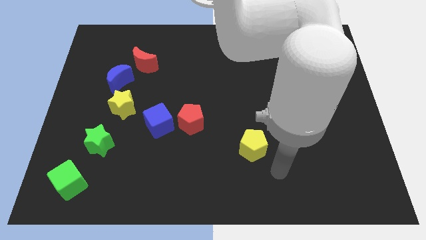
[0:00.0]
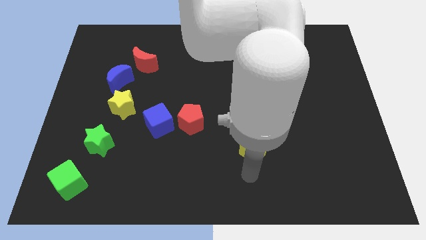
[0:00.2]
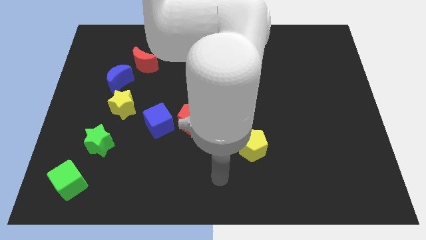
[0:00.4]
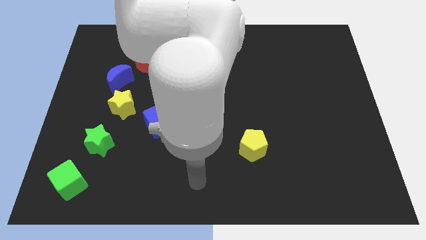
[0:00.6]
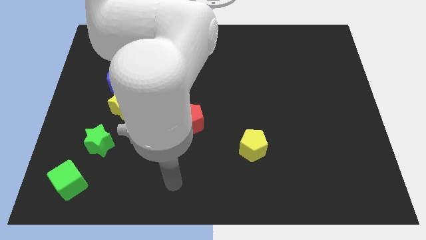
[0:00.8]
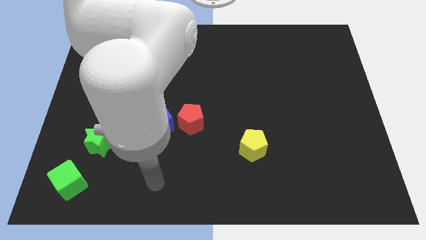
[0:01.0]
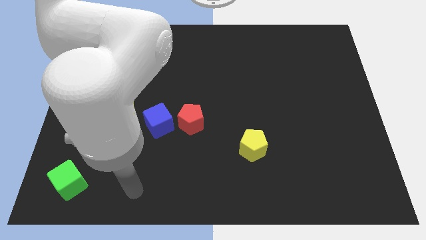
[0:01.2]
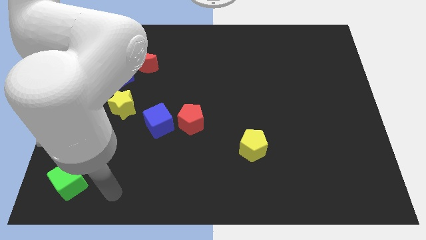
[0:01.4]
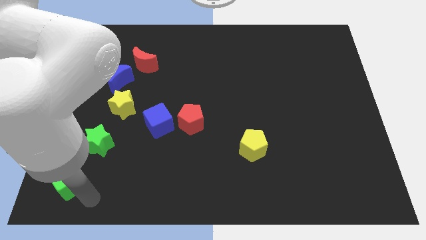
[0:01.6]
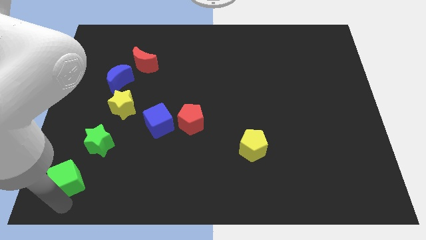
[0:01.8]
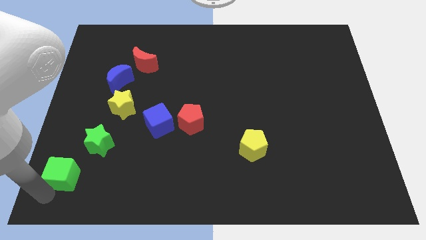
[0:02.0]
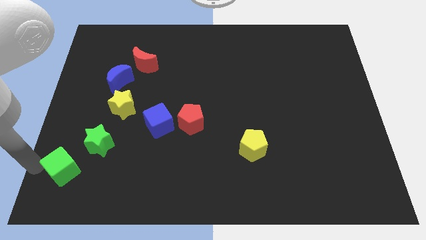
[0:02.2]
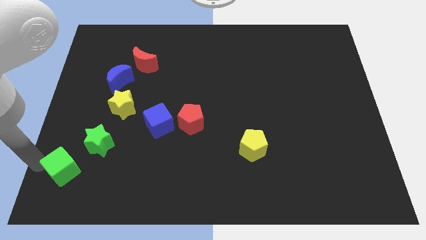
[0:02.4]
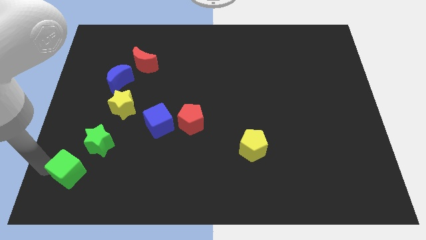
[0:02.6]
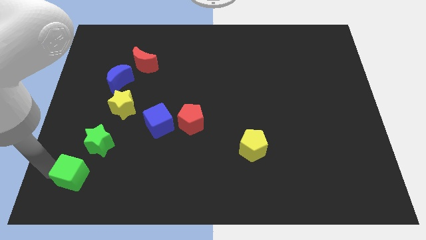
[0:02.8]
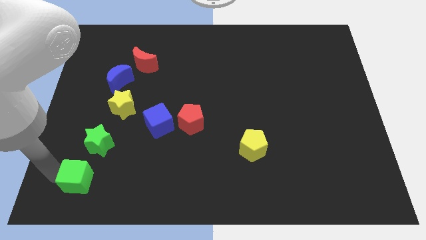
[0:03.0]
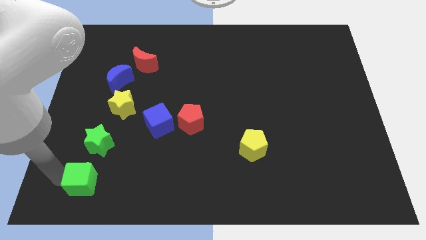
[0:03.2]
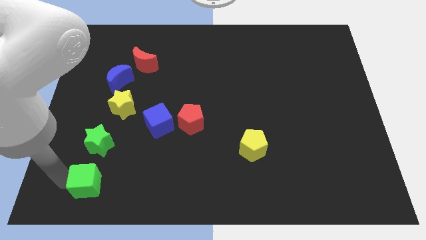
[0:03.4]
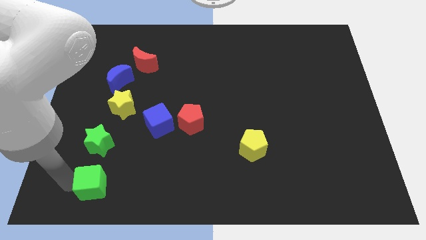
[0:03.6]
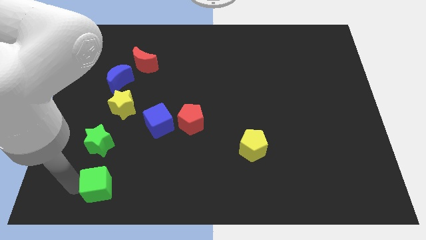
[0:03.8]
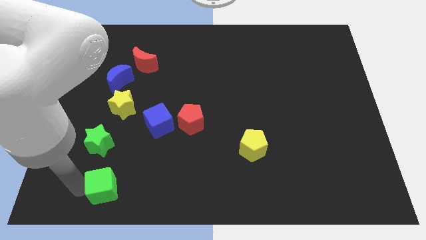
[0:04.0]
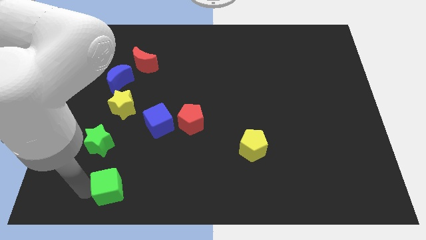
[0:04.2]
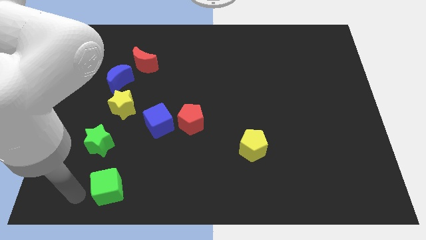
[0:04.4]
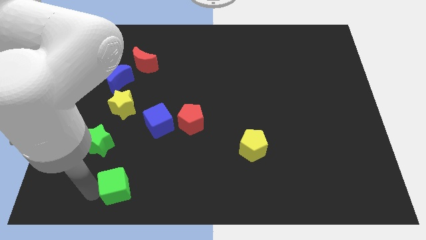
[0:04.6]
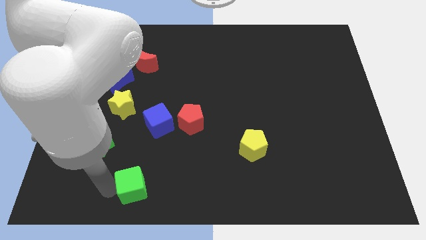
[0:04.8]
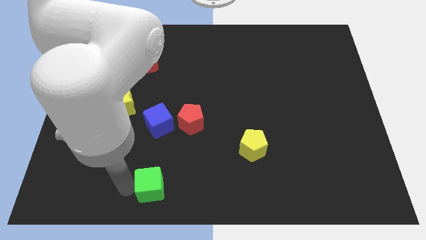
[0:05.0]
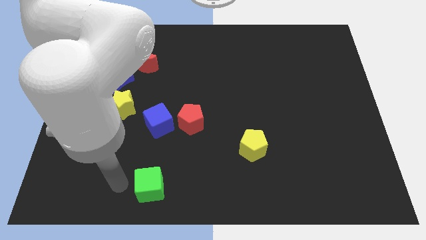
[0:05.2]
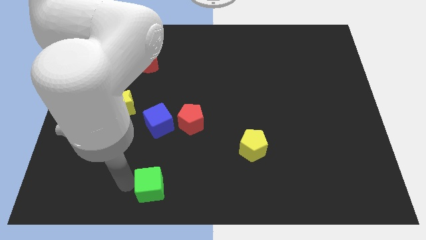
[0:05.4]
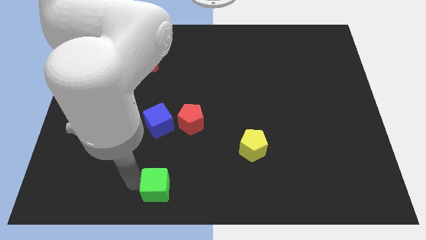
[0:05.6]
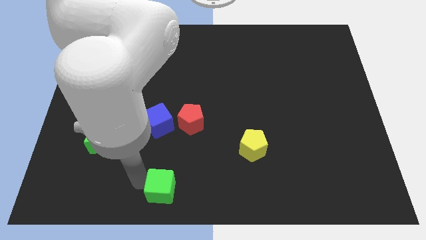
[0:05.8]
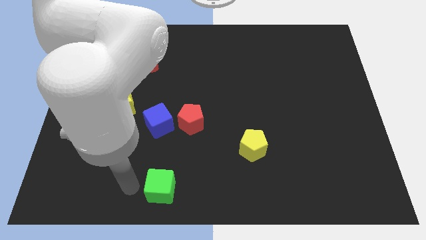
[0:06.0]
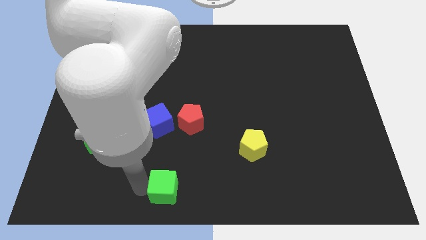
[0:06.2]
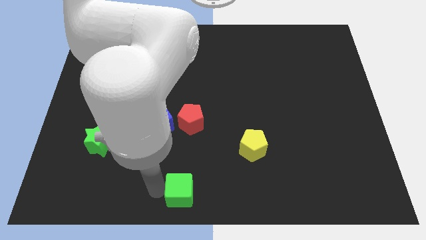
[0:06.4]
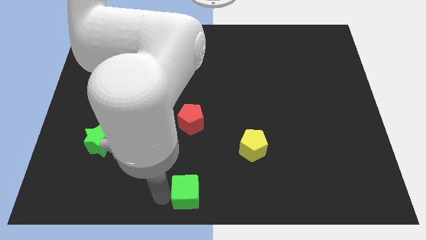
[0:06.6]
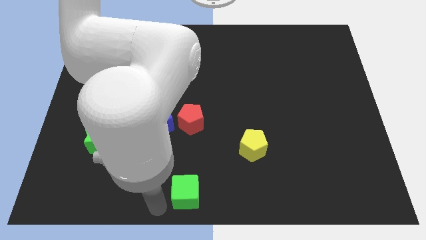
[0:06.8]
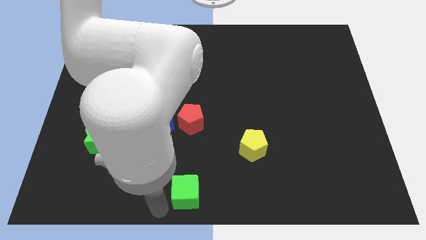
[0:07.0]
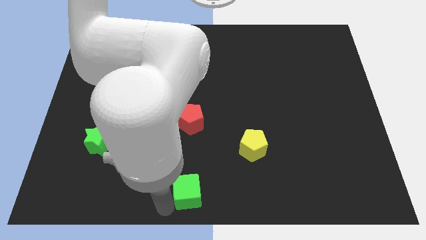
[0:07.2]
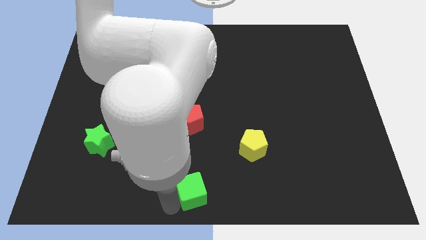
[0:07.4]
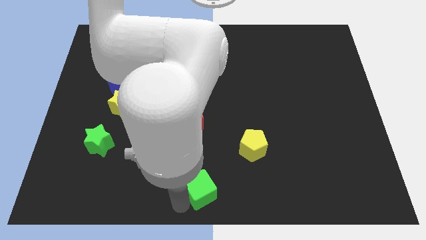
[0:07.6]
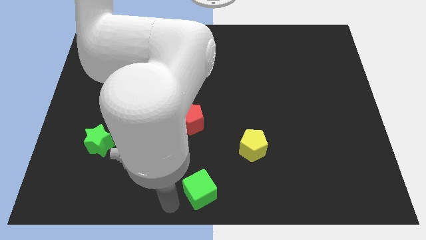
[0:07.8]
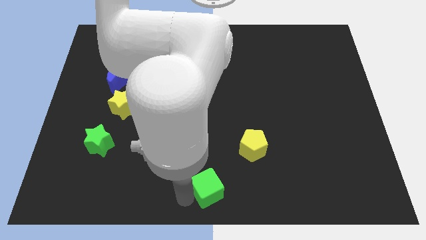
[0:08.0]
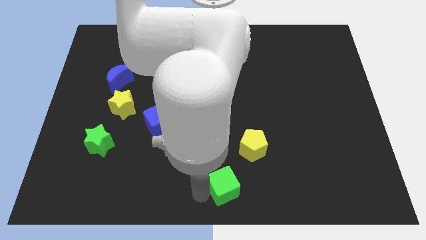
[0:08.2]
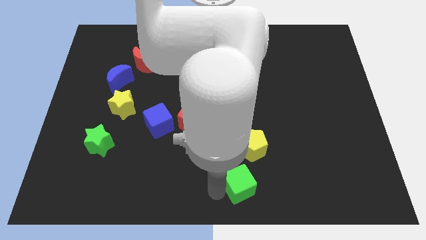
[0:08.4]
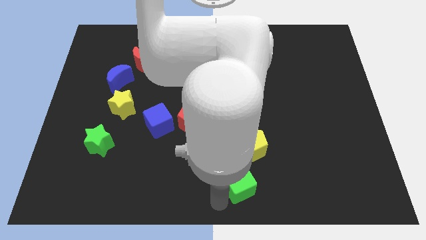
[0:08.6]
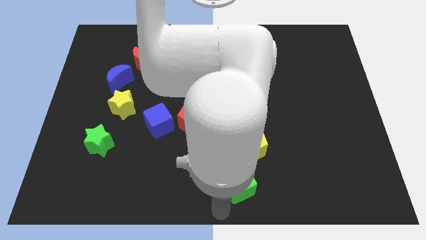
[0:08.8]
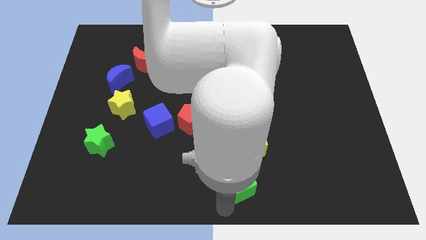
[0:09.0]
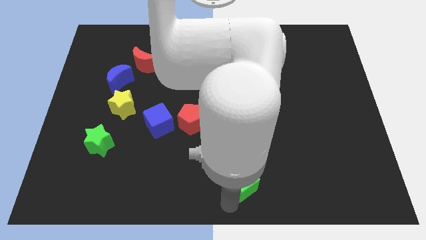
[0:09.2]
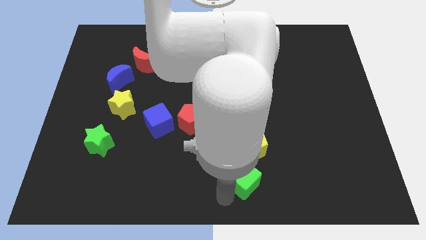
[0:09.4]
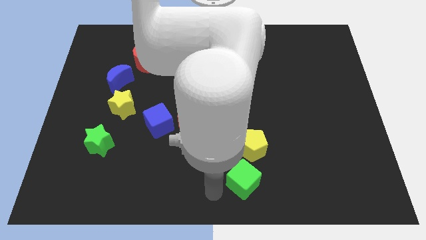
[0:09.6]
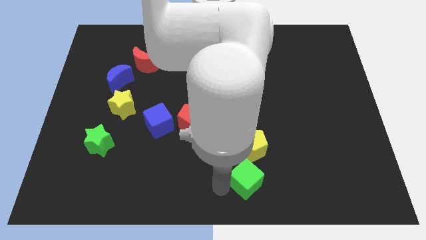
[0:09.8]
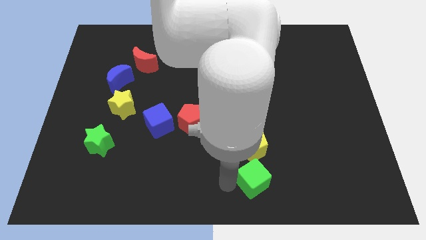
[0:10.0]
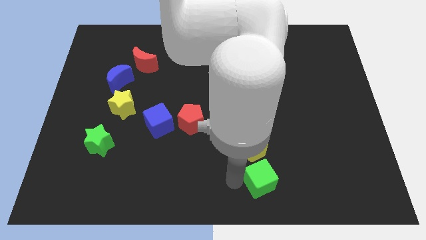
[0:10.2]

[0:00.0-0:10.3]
move the green cube to the bottom right side of the yellow pentagon

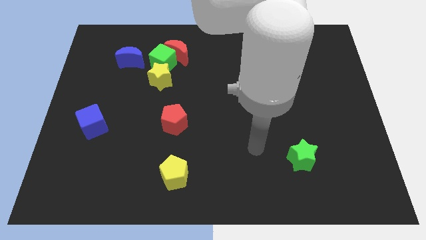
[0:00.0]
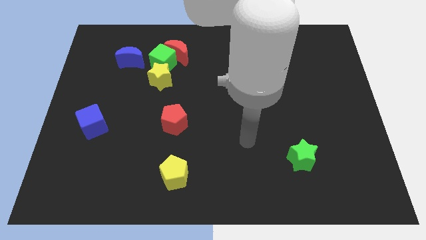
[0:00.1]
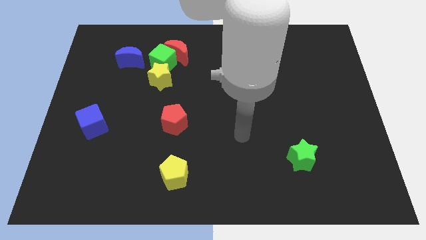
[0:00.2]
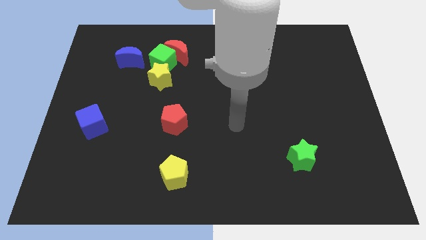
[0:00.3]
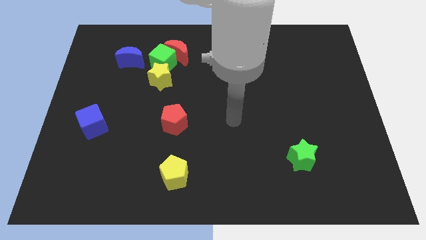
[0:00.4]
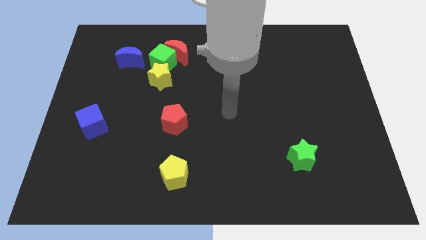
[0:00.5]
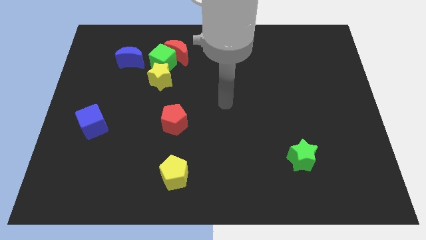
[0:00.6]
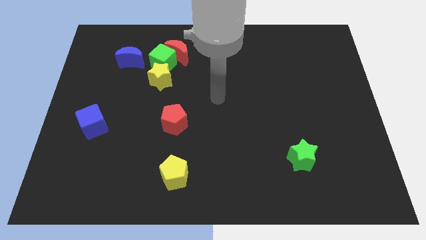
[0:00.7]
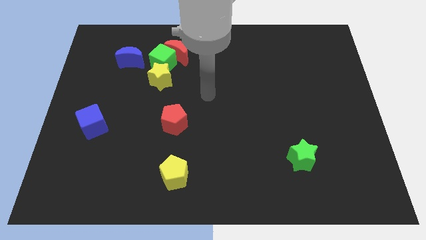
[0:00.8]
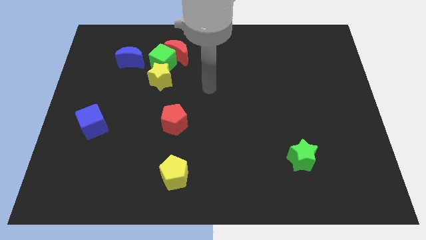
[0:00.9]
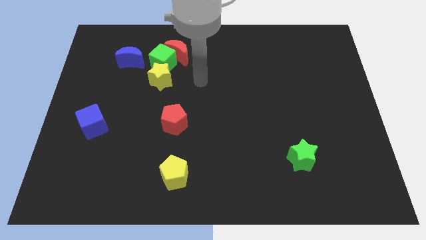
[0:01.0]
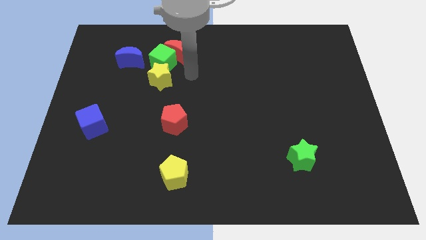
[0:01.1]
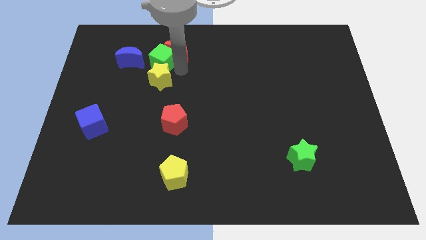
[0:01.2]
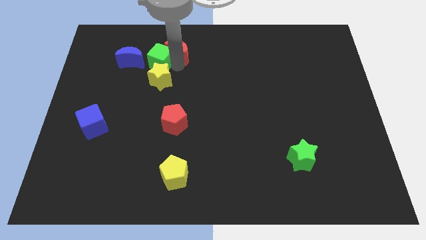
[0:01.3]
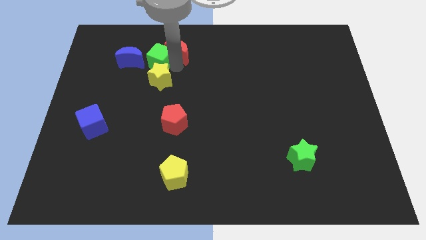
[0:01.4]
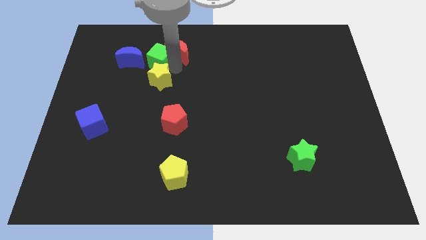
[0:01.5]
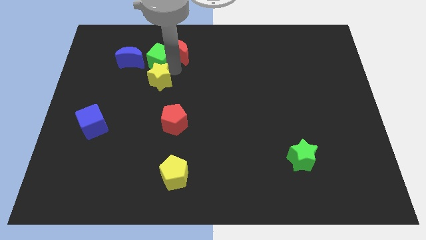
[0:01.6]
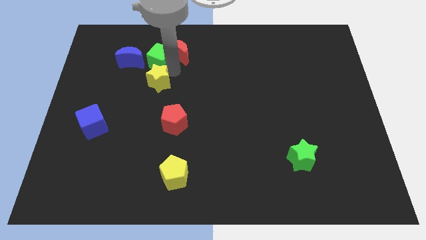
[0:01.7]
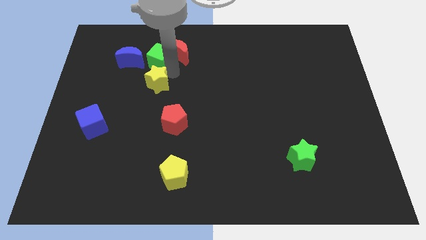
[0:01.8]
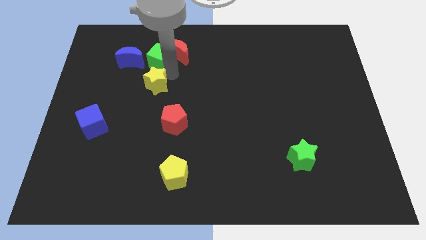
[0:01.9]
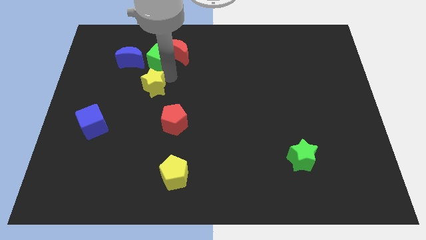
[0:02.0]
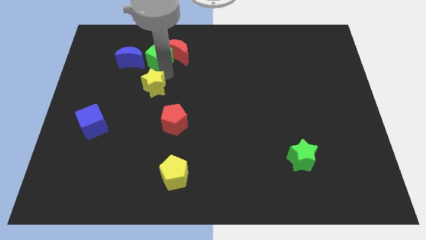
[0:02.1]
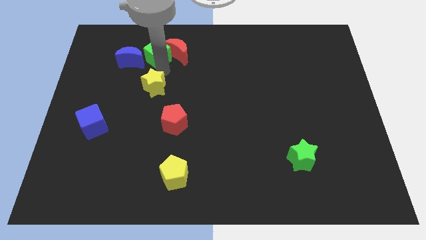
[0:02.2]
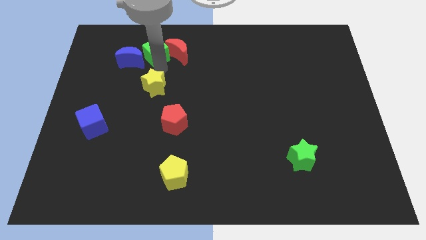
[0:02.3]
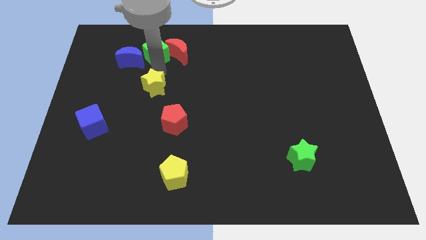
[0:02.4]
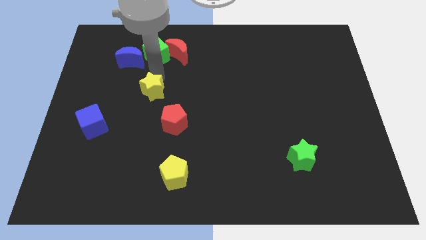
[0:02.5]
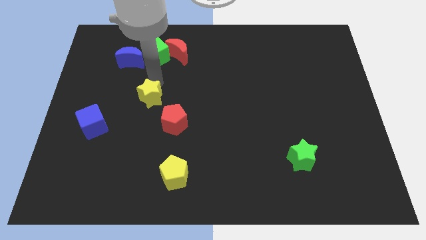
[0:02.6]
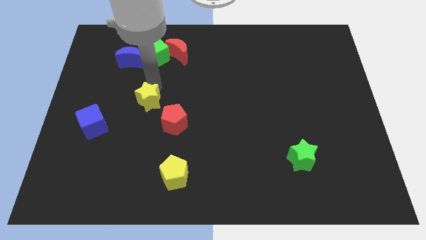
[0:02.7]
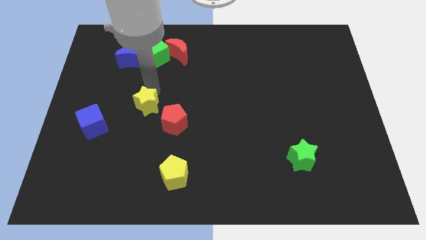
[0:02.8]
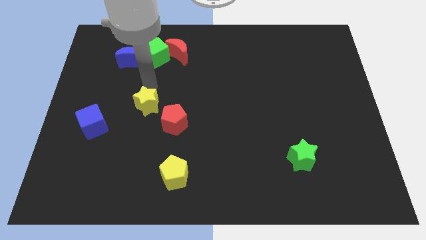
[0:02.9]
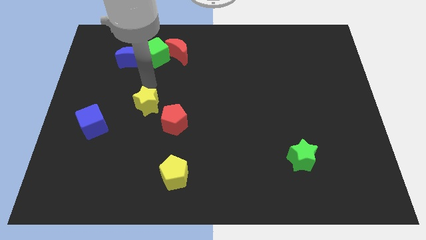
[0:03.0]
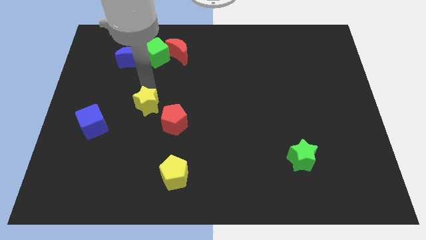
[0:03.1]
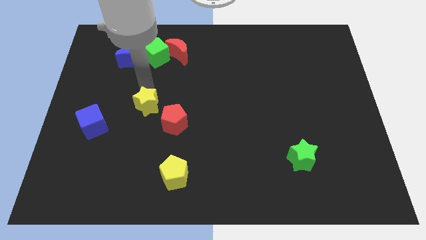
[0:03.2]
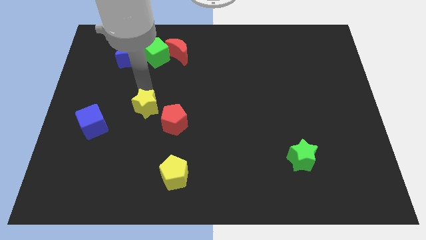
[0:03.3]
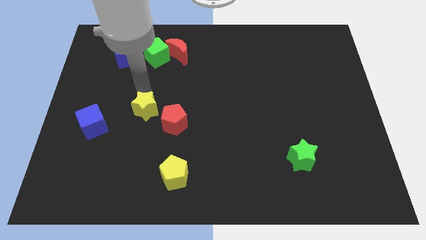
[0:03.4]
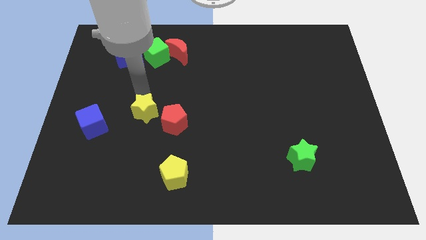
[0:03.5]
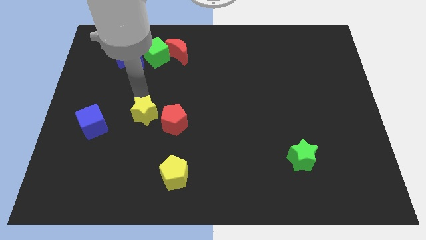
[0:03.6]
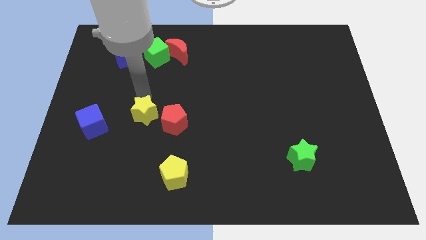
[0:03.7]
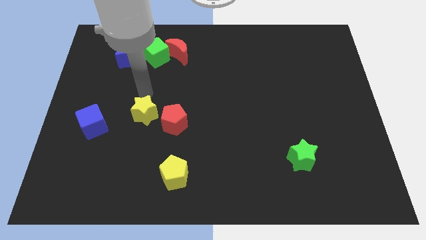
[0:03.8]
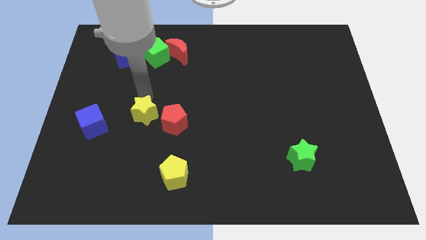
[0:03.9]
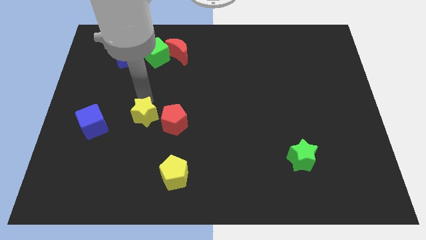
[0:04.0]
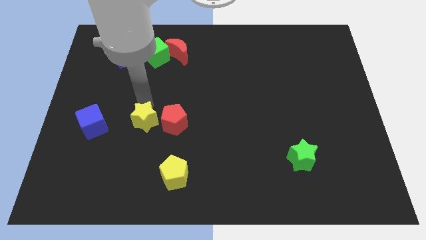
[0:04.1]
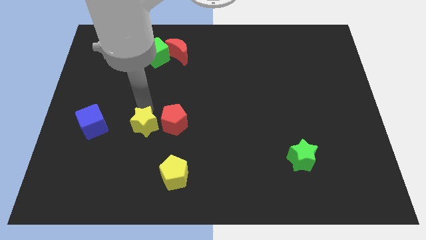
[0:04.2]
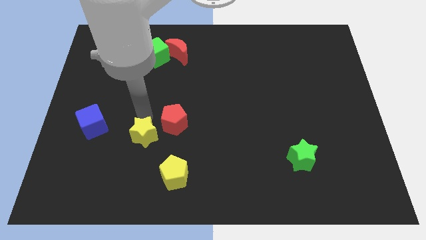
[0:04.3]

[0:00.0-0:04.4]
put the yellow star diagonally up and to the left of the yellow pentagon
